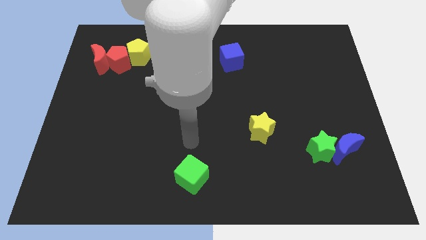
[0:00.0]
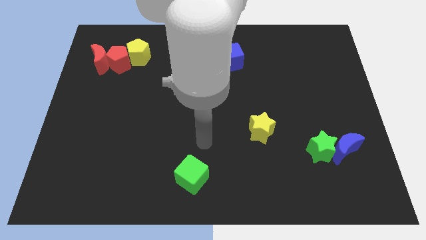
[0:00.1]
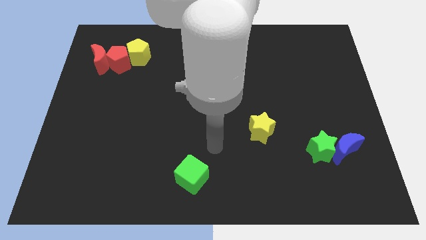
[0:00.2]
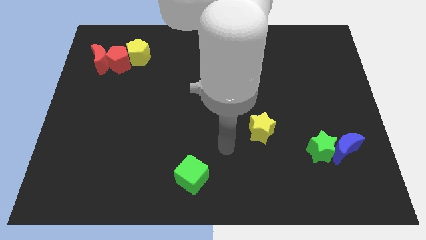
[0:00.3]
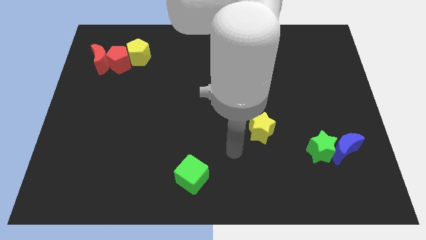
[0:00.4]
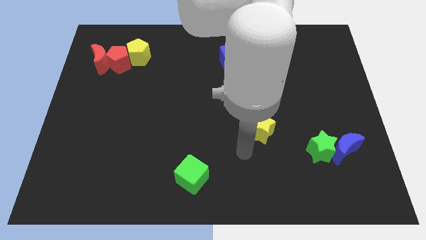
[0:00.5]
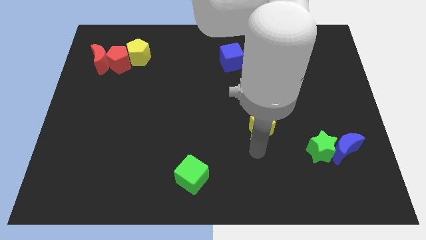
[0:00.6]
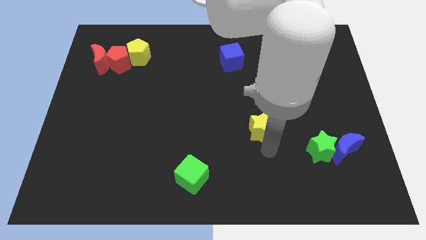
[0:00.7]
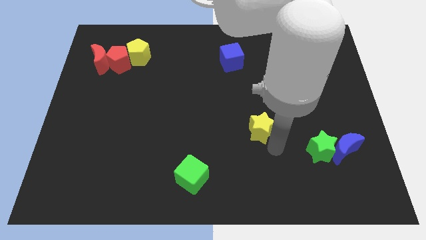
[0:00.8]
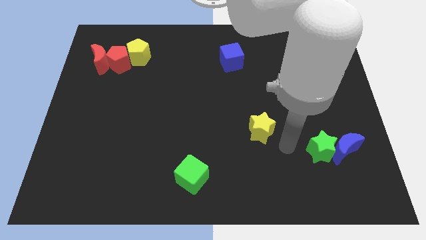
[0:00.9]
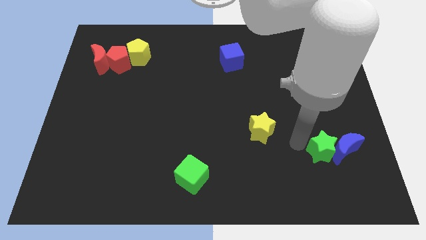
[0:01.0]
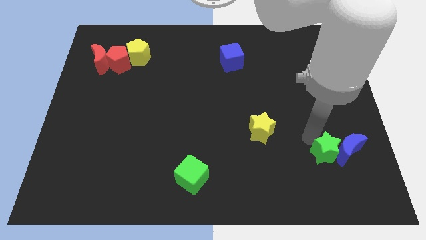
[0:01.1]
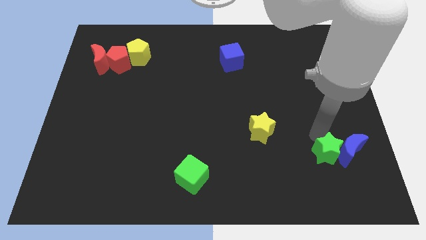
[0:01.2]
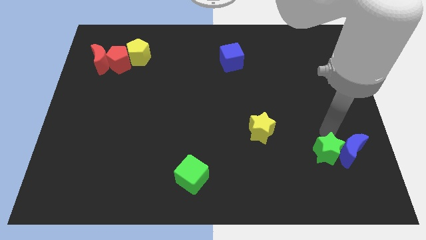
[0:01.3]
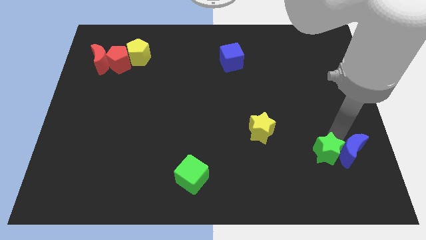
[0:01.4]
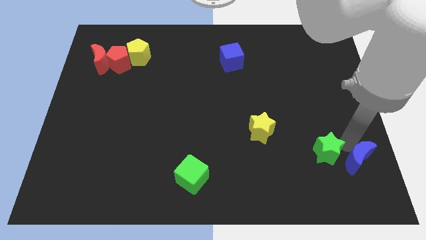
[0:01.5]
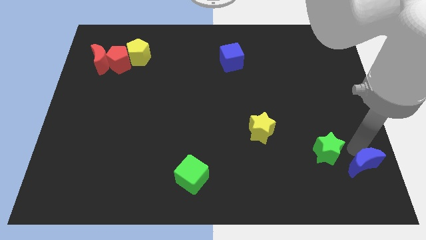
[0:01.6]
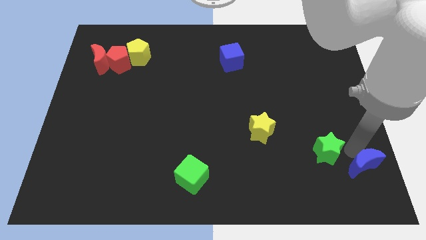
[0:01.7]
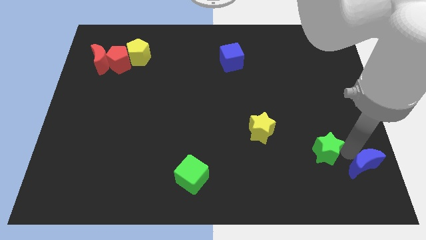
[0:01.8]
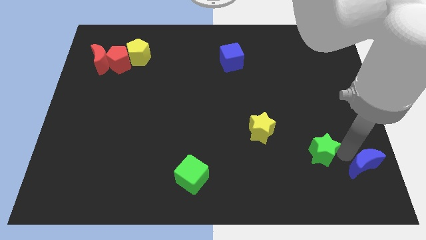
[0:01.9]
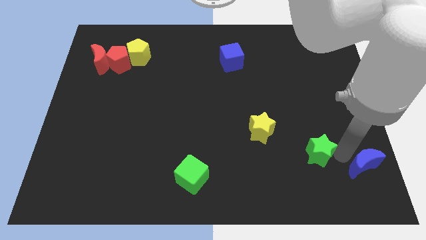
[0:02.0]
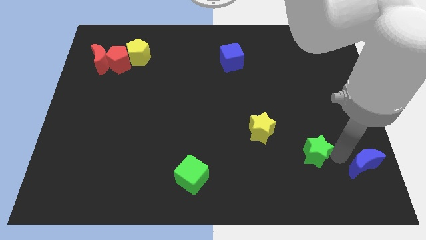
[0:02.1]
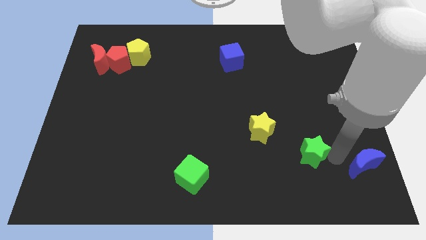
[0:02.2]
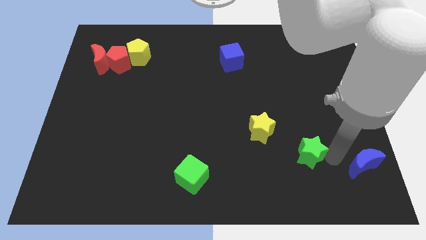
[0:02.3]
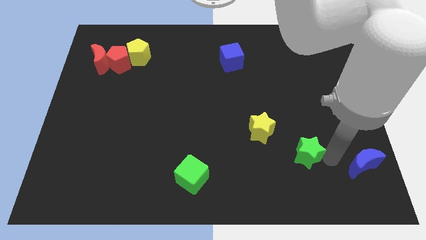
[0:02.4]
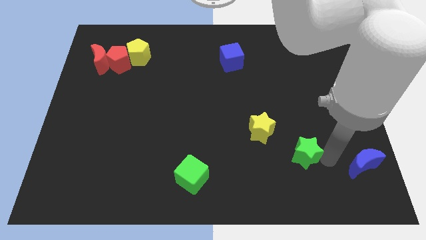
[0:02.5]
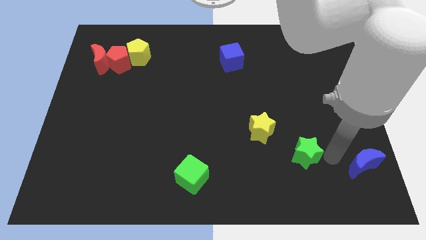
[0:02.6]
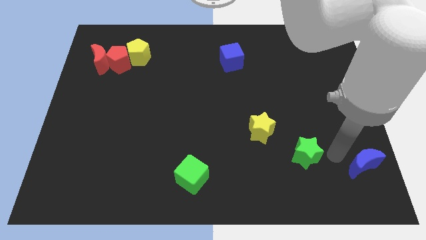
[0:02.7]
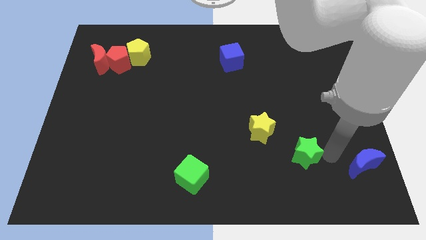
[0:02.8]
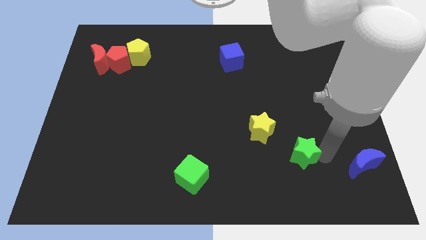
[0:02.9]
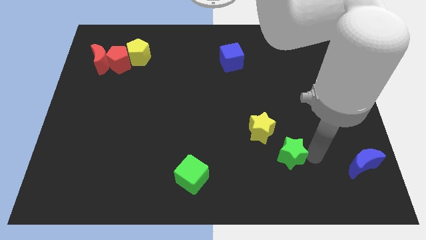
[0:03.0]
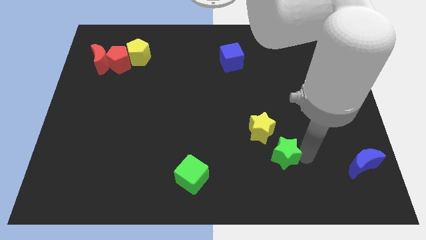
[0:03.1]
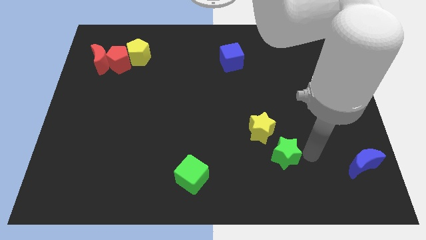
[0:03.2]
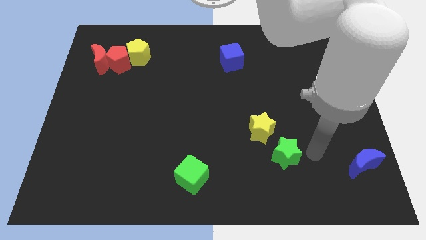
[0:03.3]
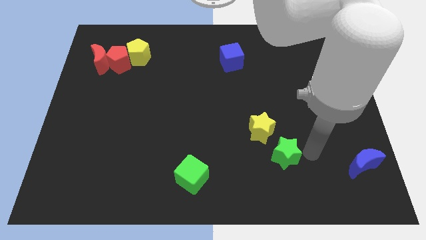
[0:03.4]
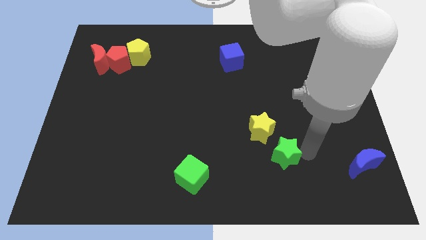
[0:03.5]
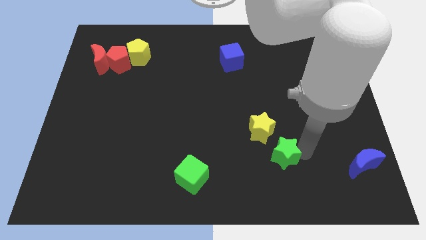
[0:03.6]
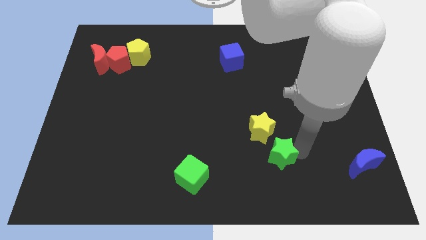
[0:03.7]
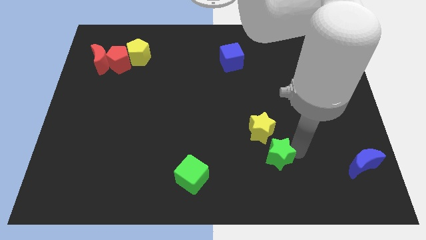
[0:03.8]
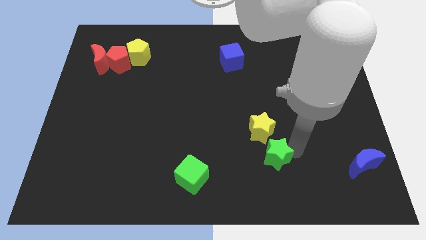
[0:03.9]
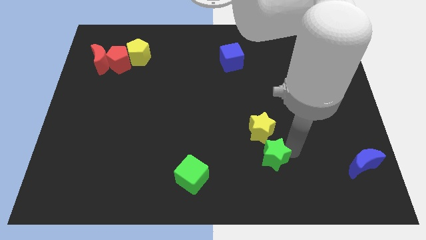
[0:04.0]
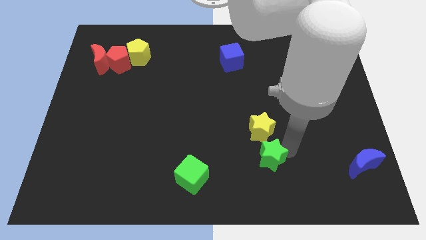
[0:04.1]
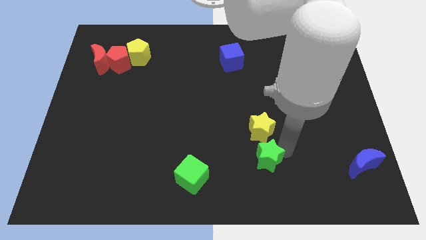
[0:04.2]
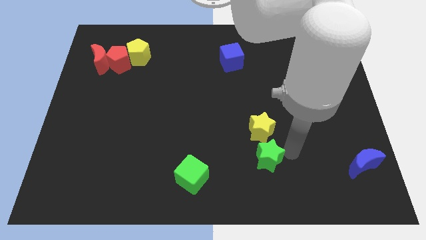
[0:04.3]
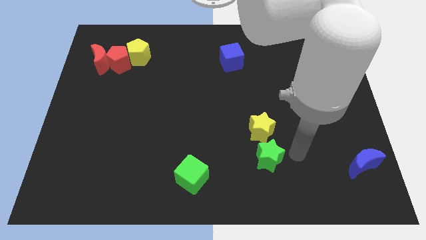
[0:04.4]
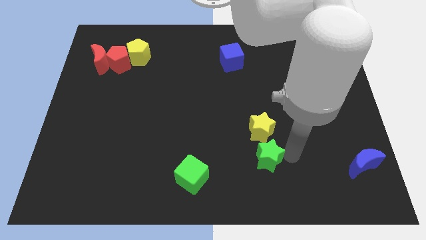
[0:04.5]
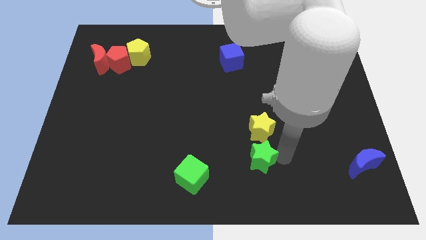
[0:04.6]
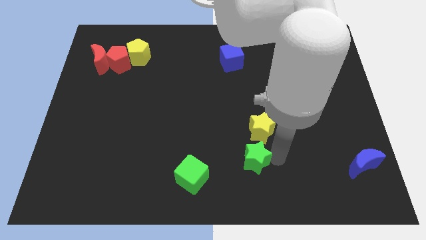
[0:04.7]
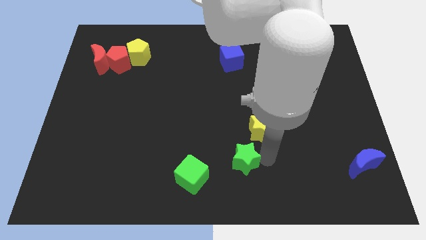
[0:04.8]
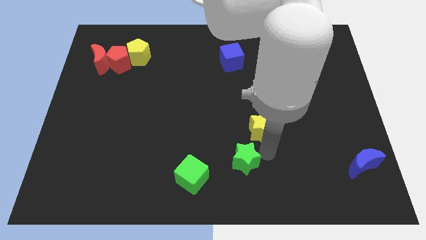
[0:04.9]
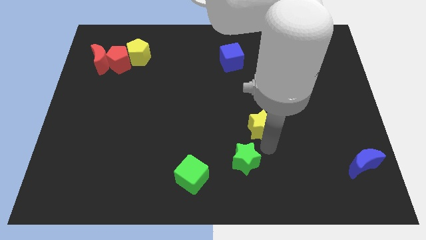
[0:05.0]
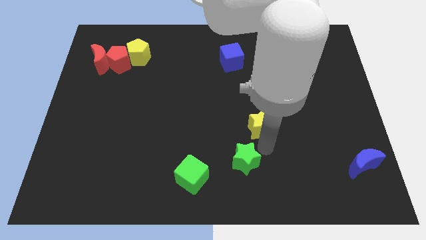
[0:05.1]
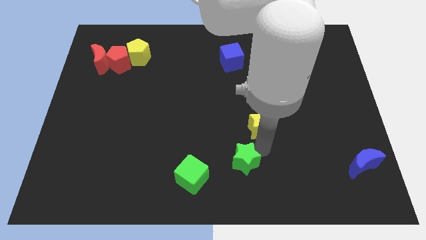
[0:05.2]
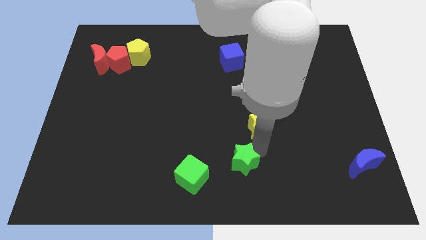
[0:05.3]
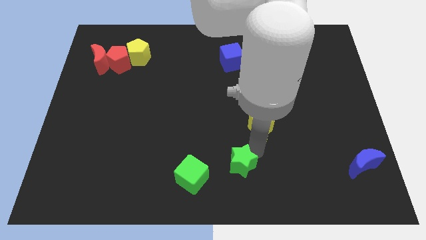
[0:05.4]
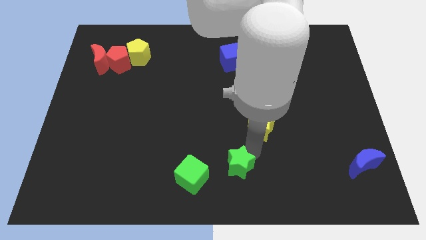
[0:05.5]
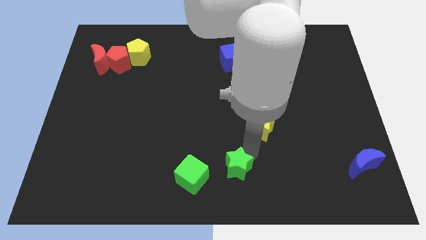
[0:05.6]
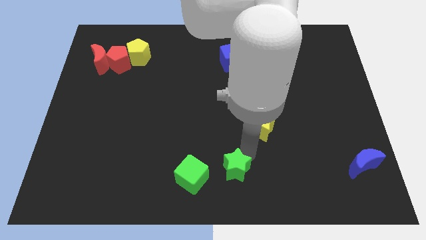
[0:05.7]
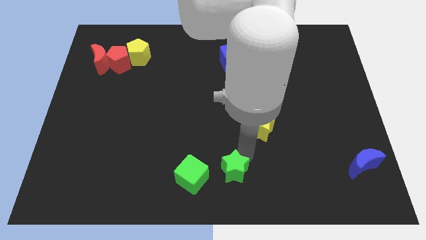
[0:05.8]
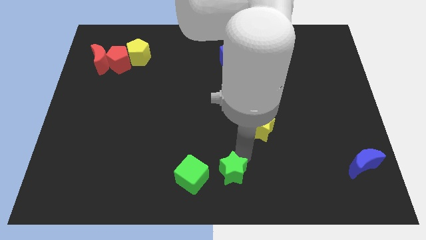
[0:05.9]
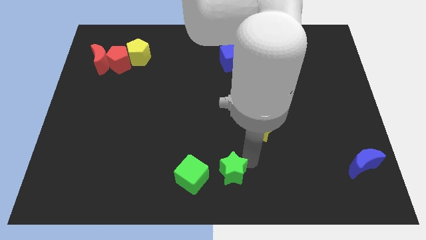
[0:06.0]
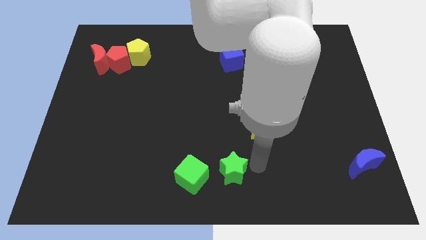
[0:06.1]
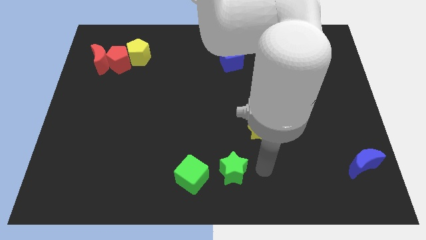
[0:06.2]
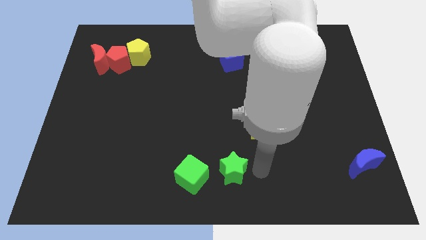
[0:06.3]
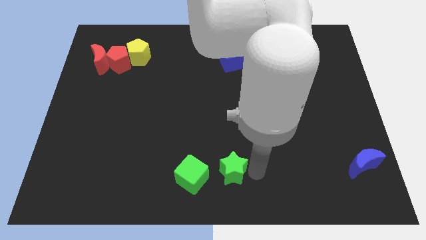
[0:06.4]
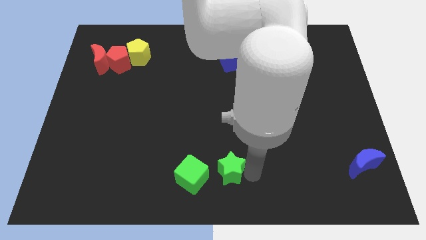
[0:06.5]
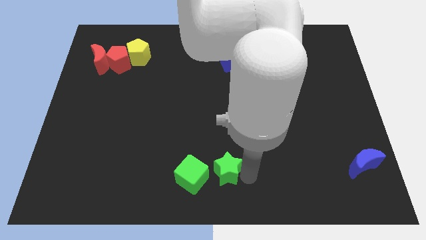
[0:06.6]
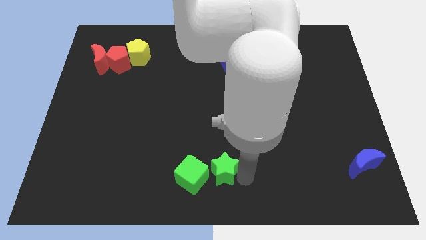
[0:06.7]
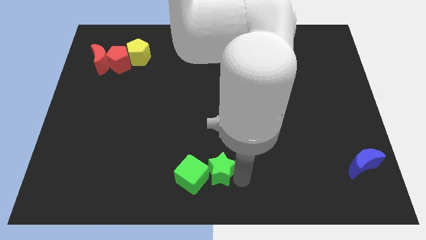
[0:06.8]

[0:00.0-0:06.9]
put the green star next to the green cube
